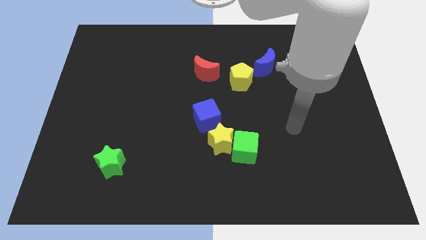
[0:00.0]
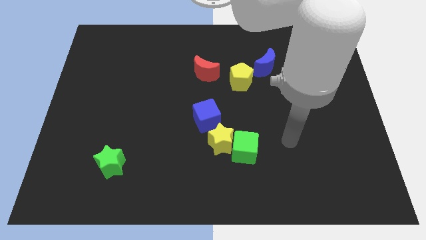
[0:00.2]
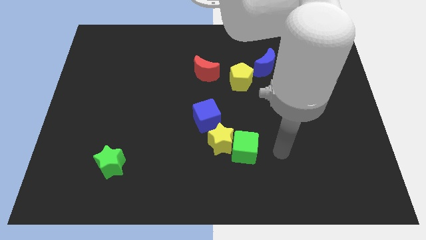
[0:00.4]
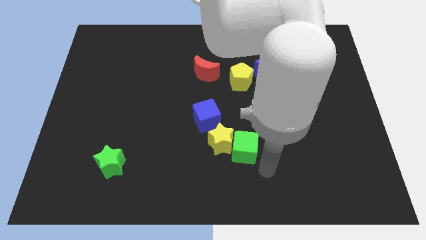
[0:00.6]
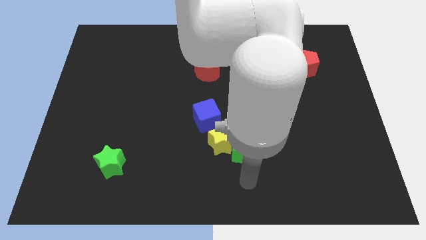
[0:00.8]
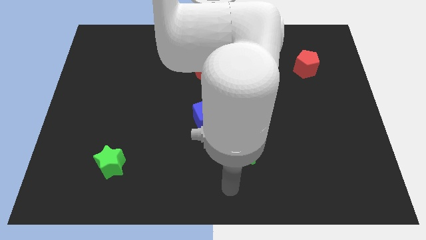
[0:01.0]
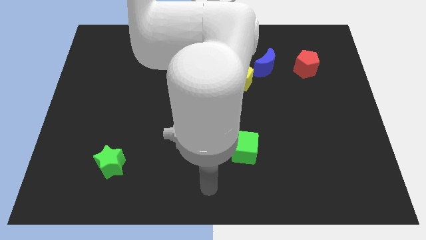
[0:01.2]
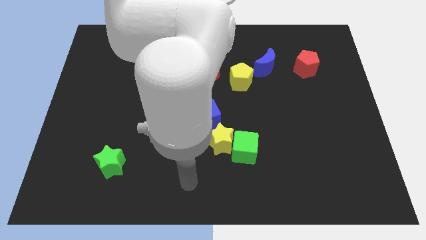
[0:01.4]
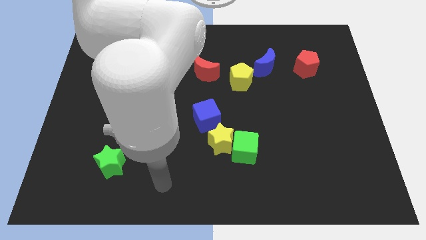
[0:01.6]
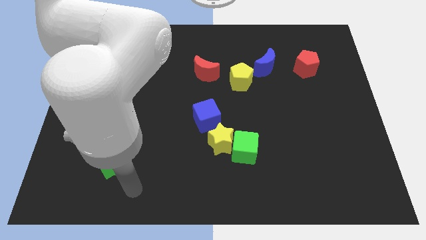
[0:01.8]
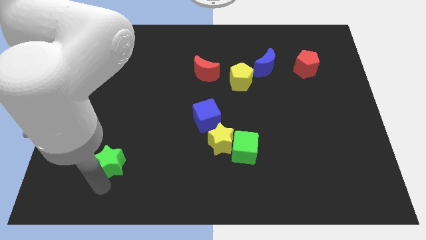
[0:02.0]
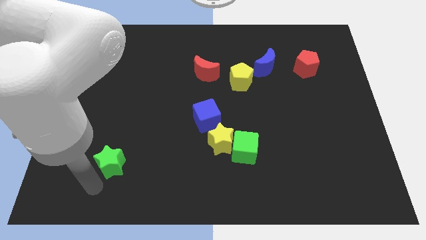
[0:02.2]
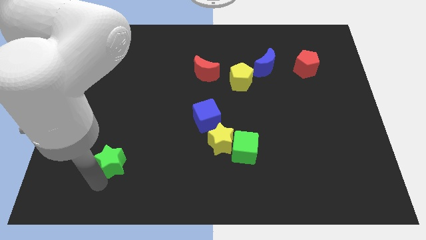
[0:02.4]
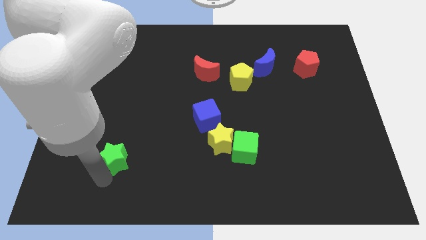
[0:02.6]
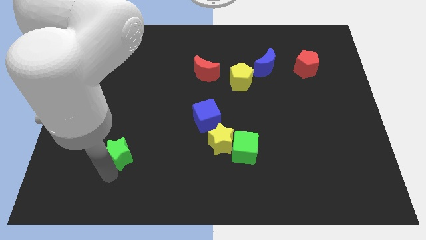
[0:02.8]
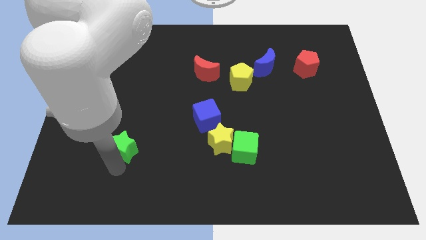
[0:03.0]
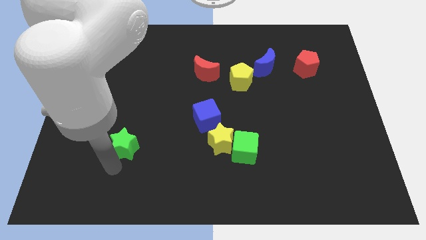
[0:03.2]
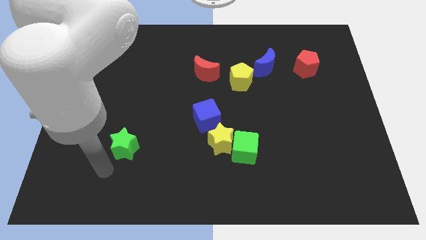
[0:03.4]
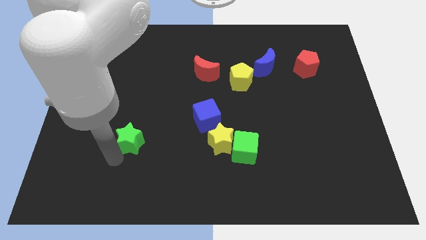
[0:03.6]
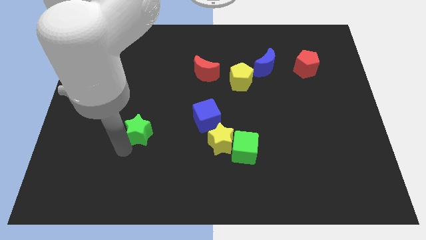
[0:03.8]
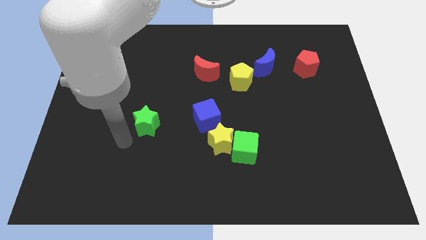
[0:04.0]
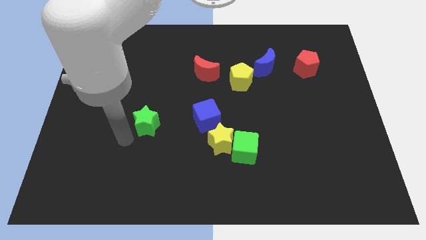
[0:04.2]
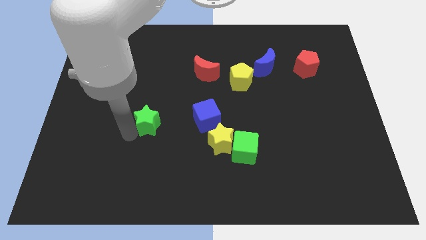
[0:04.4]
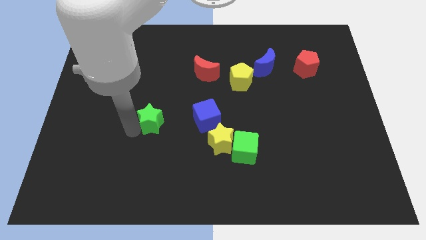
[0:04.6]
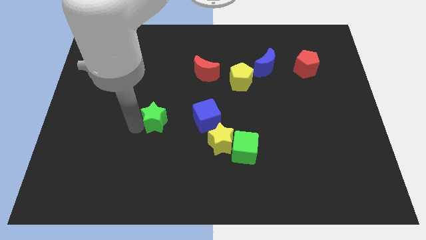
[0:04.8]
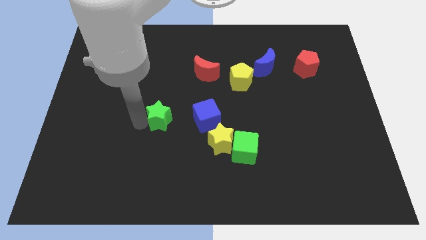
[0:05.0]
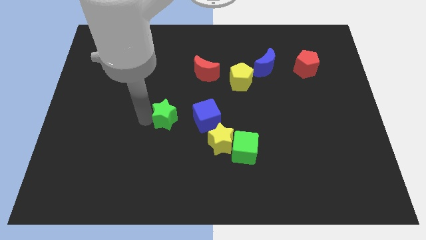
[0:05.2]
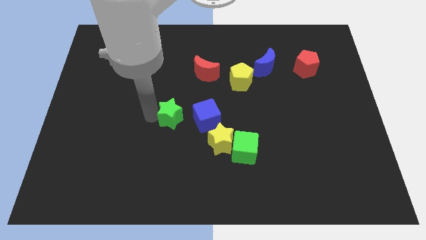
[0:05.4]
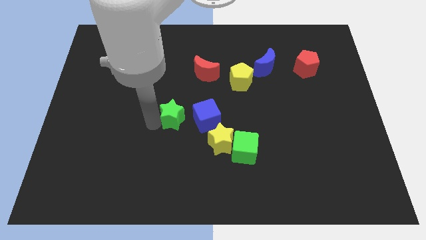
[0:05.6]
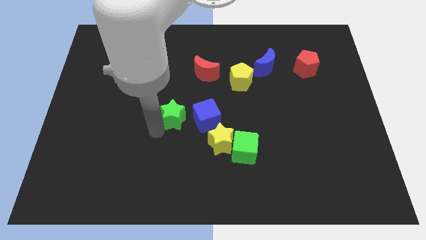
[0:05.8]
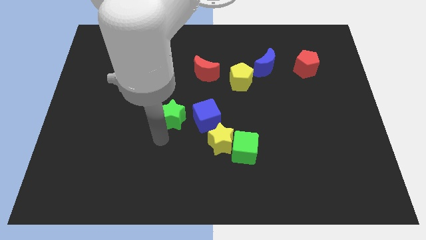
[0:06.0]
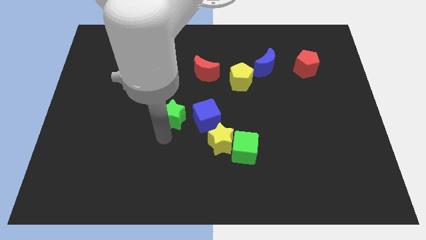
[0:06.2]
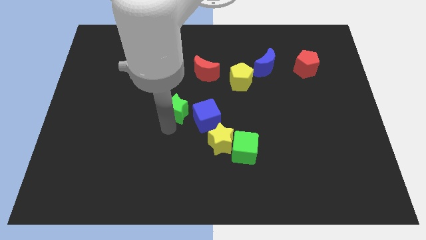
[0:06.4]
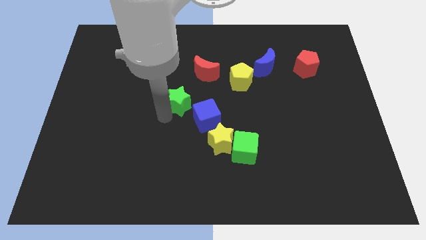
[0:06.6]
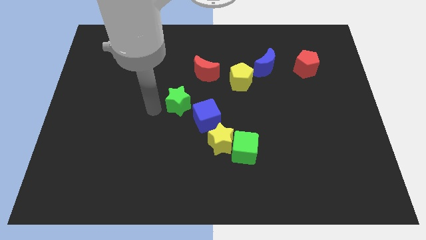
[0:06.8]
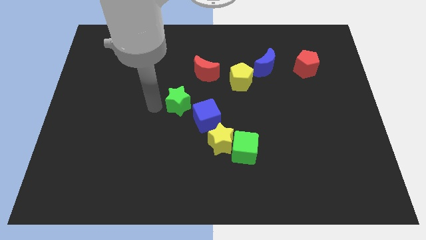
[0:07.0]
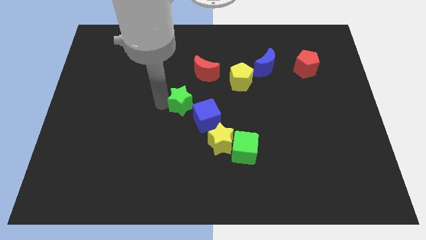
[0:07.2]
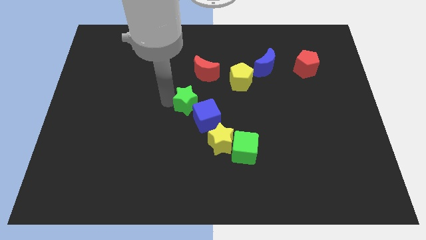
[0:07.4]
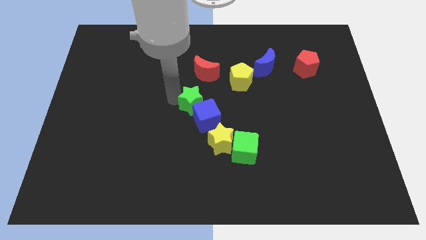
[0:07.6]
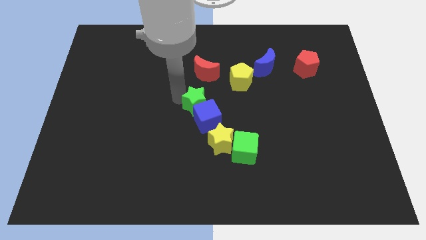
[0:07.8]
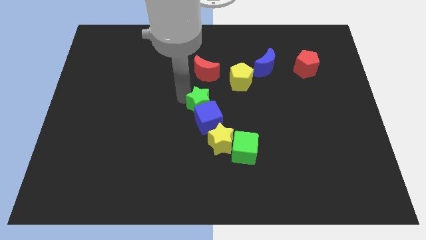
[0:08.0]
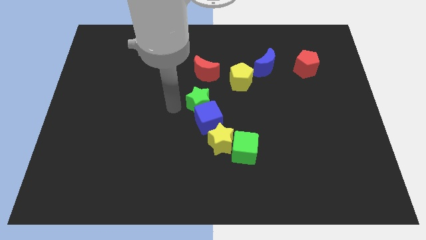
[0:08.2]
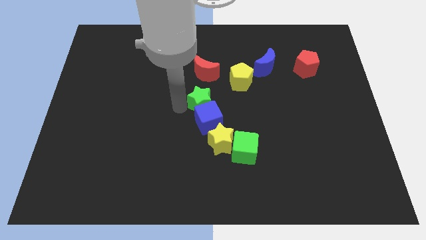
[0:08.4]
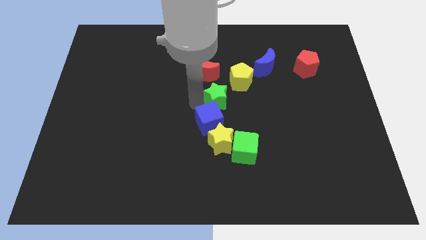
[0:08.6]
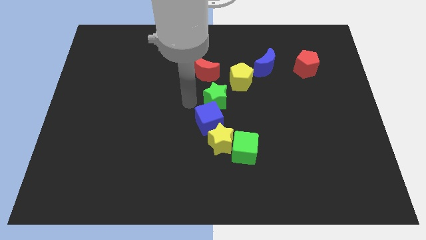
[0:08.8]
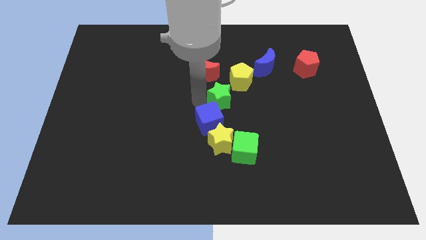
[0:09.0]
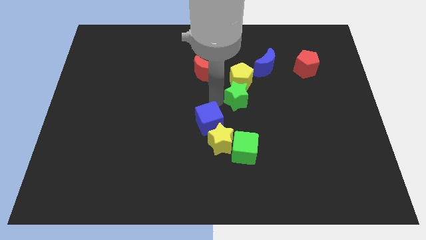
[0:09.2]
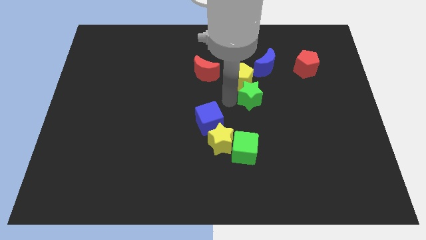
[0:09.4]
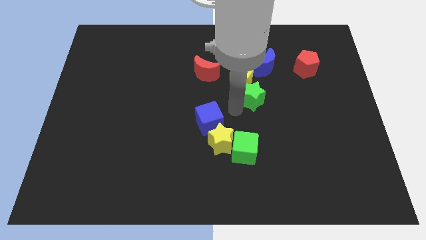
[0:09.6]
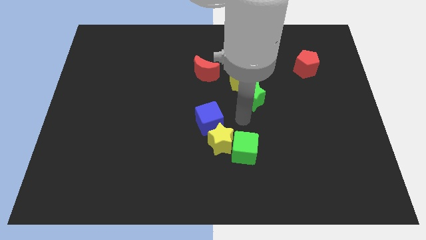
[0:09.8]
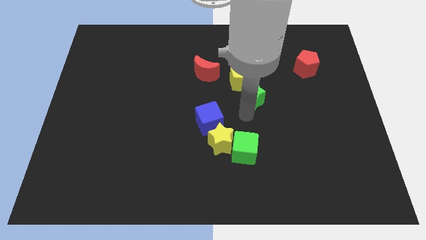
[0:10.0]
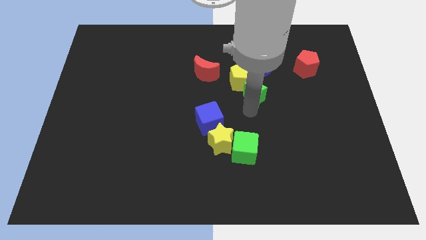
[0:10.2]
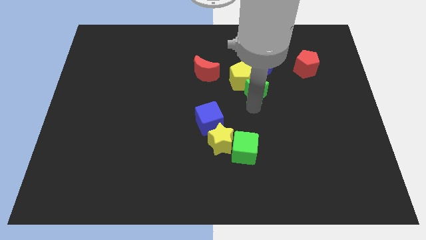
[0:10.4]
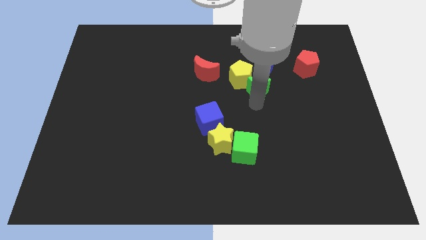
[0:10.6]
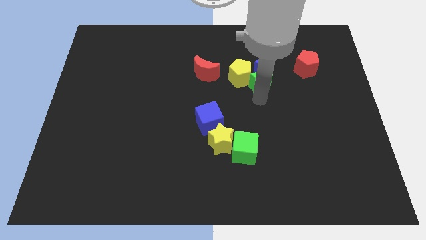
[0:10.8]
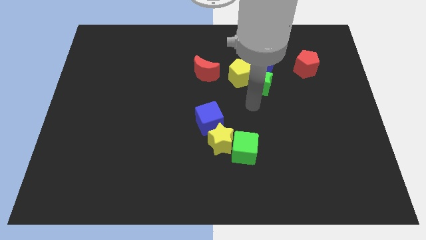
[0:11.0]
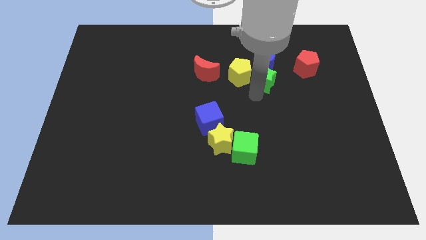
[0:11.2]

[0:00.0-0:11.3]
slide the green star to the blue moon

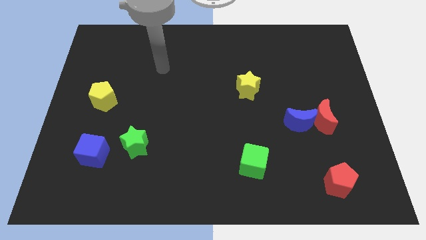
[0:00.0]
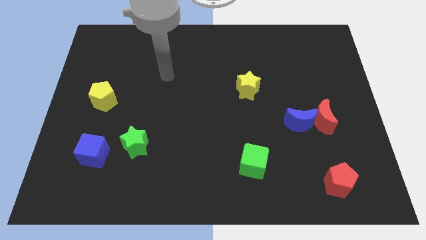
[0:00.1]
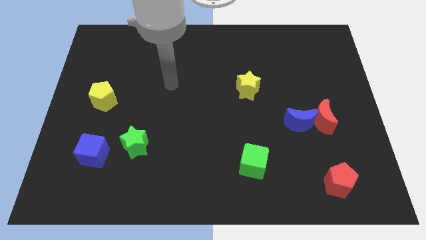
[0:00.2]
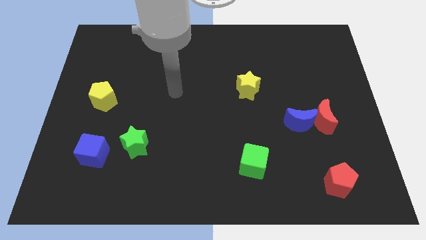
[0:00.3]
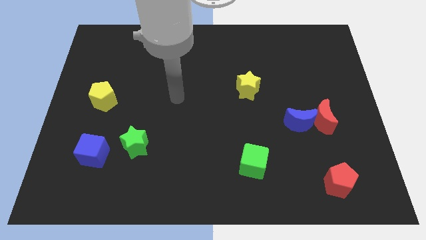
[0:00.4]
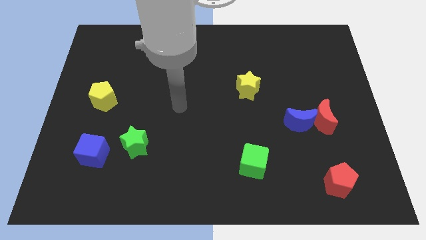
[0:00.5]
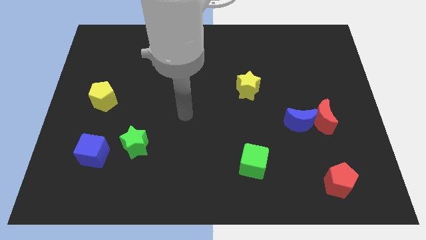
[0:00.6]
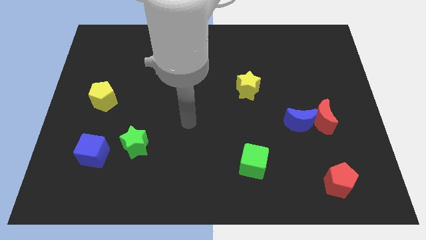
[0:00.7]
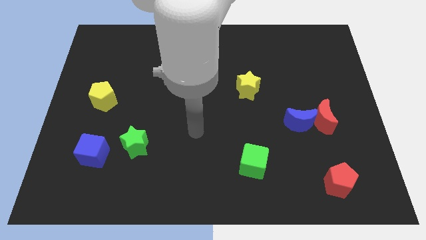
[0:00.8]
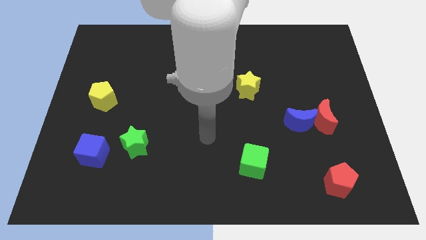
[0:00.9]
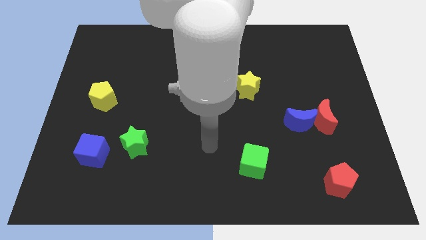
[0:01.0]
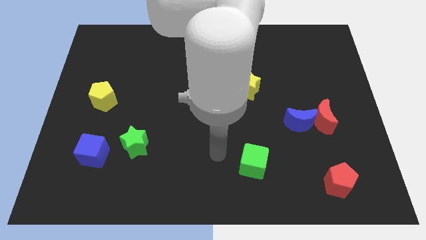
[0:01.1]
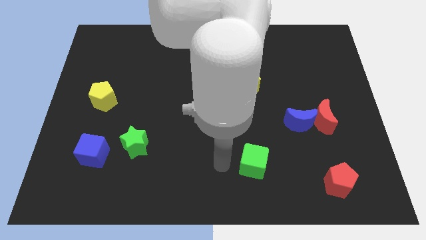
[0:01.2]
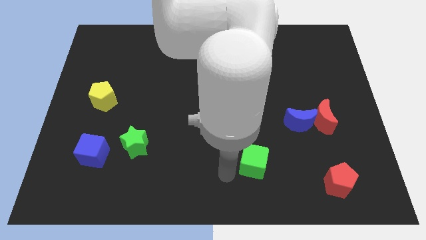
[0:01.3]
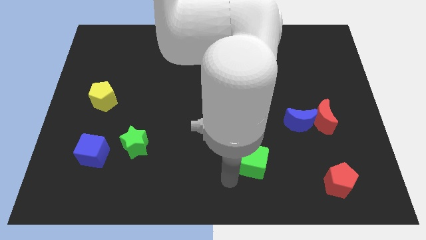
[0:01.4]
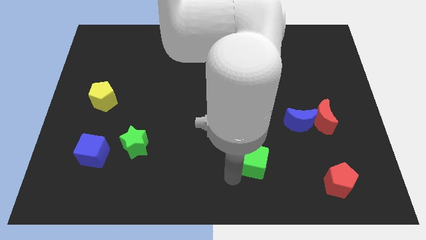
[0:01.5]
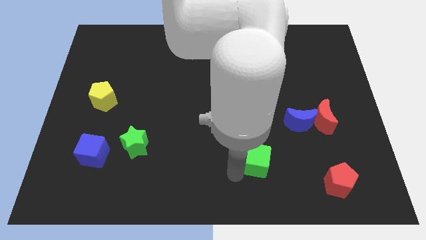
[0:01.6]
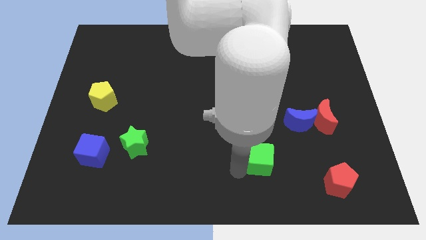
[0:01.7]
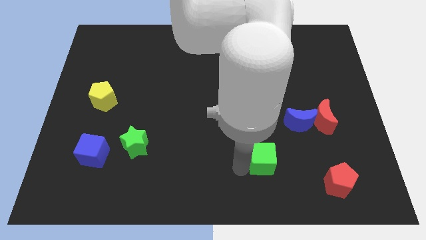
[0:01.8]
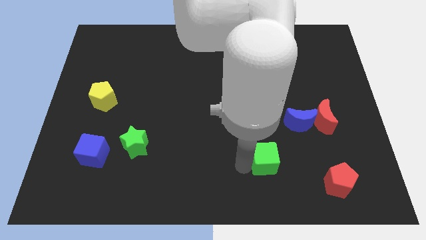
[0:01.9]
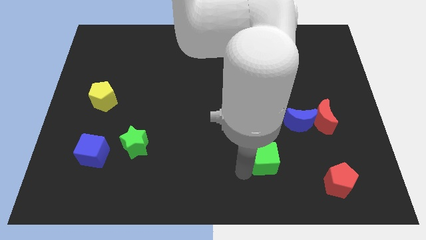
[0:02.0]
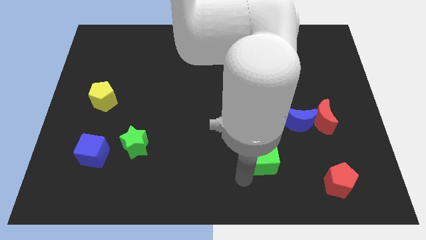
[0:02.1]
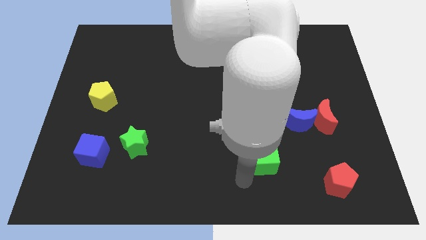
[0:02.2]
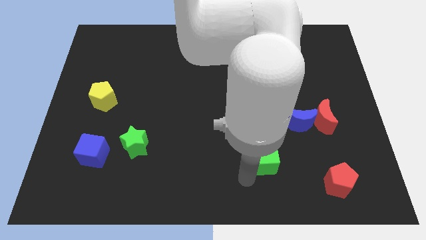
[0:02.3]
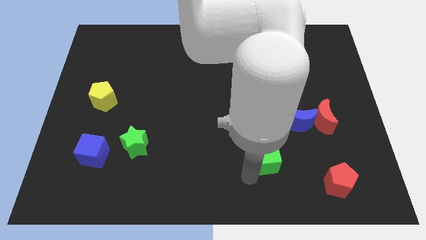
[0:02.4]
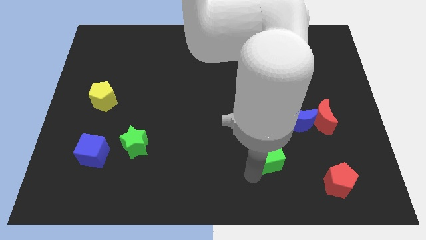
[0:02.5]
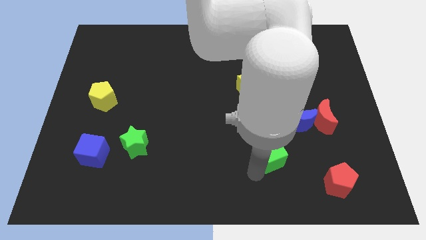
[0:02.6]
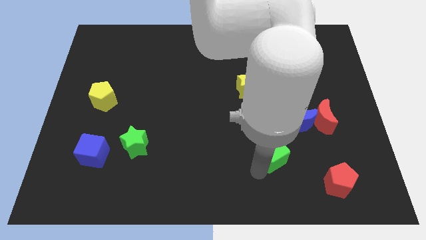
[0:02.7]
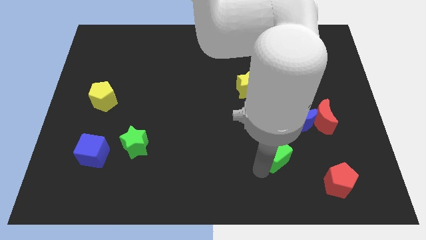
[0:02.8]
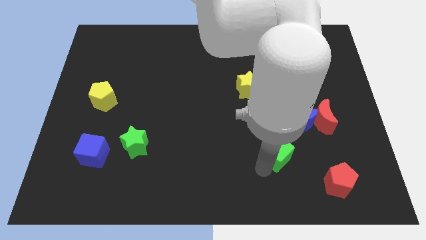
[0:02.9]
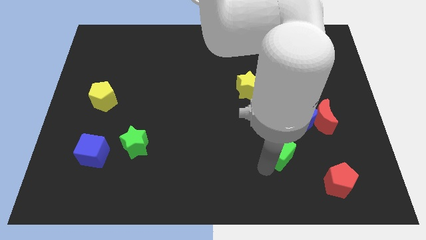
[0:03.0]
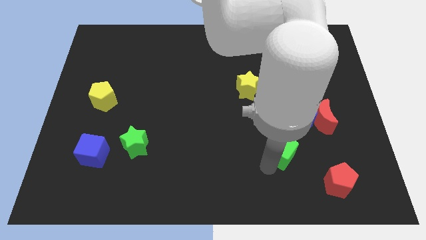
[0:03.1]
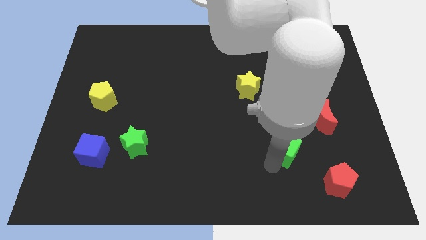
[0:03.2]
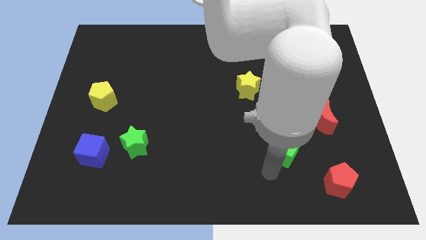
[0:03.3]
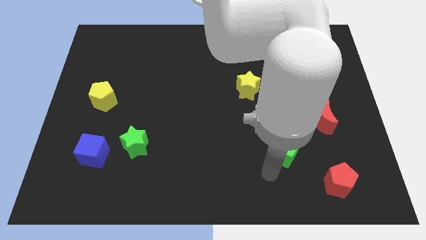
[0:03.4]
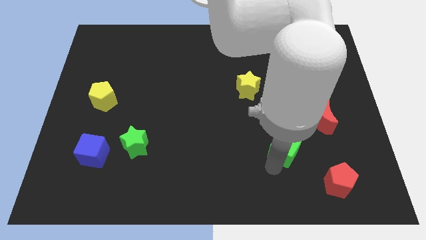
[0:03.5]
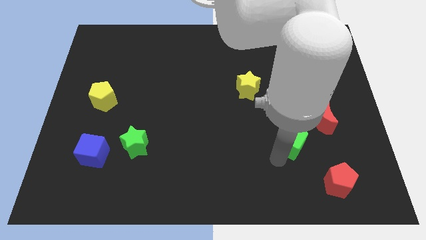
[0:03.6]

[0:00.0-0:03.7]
slide the green cube close to the blue moon
